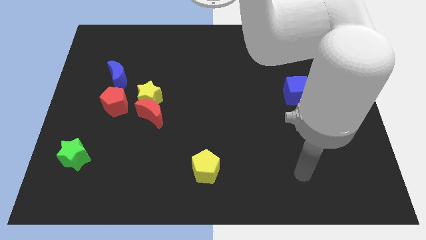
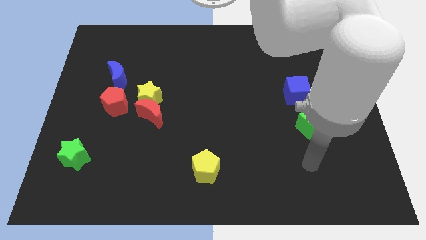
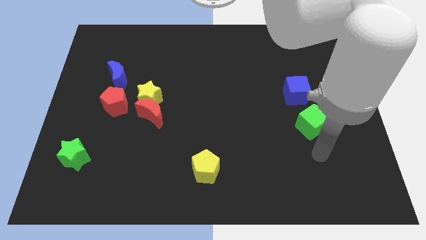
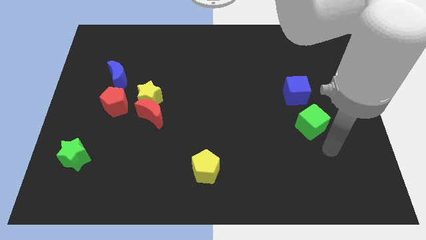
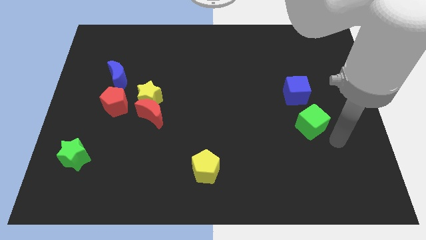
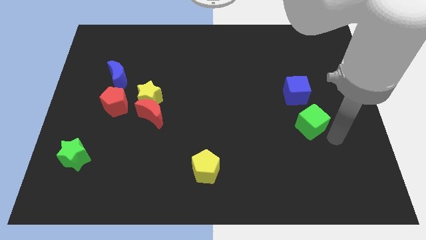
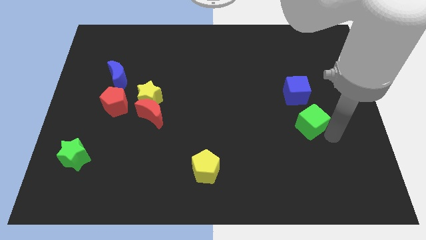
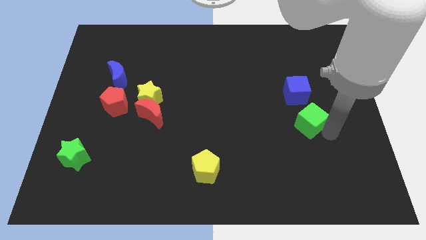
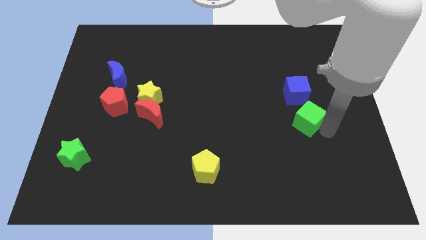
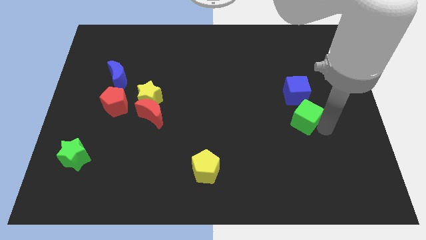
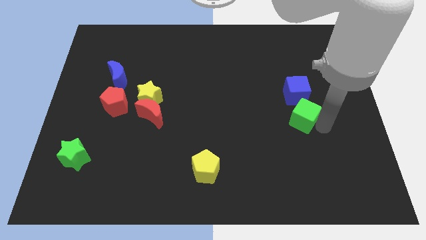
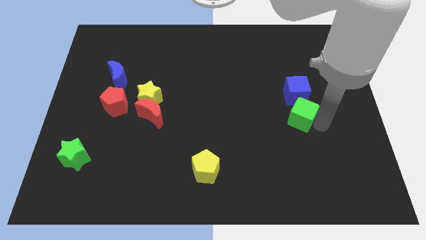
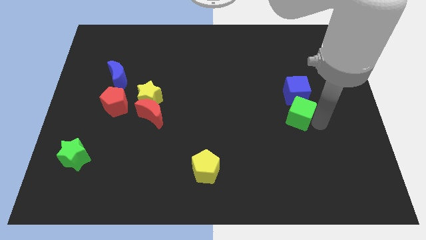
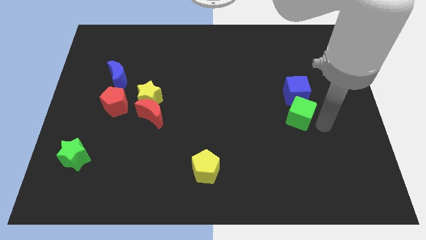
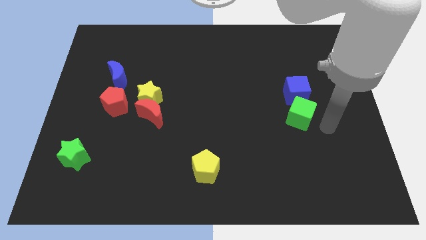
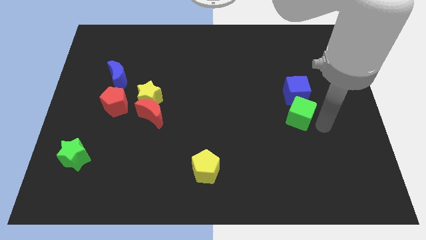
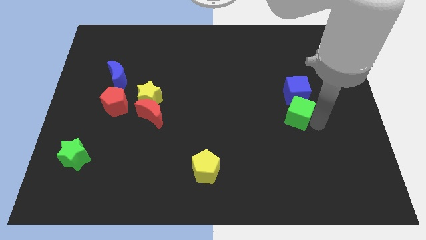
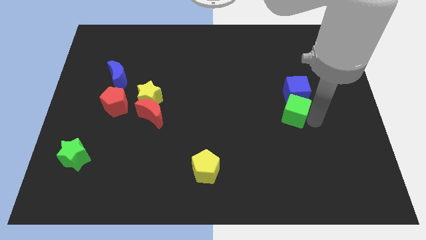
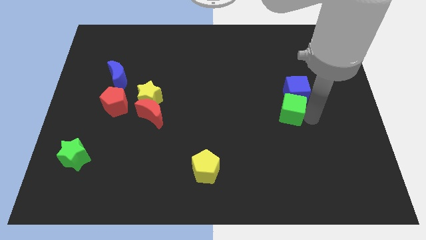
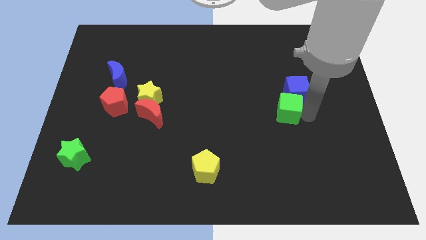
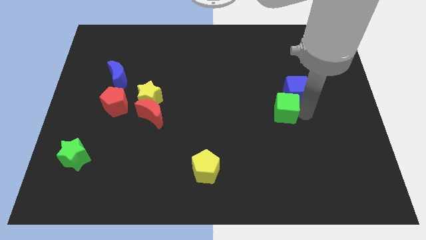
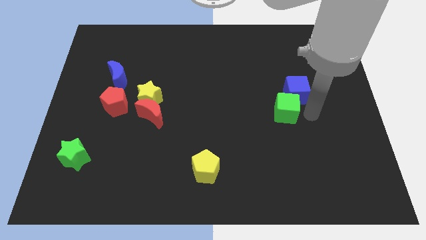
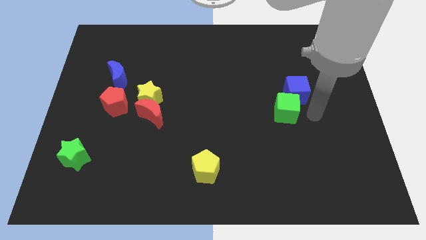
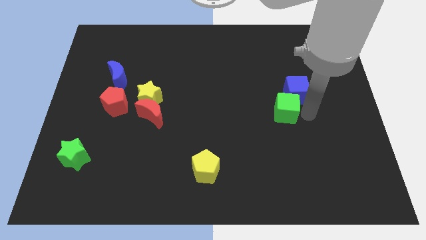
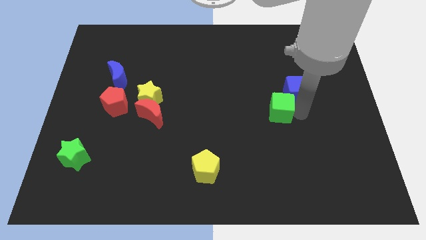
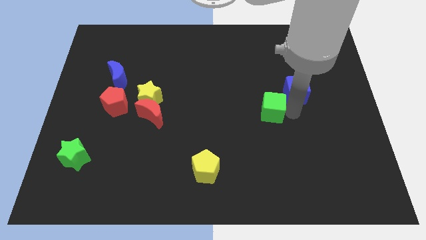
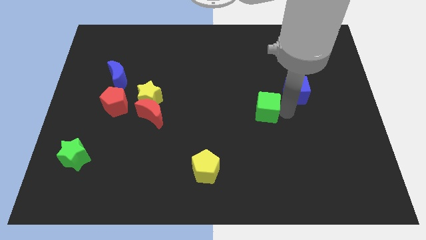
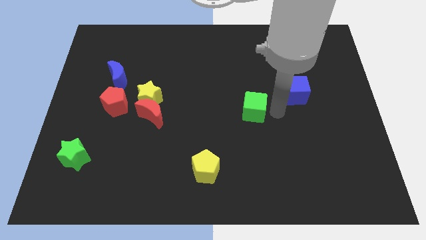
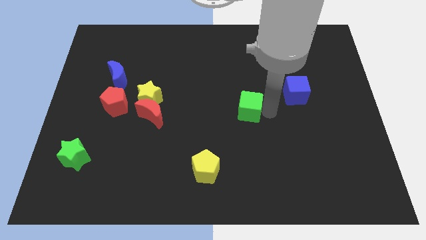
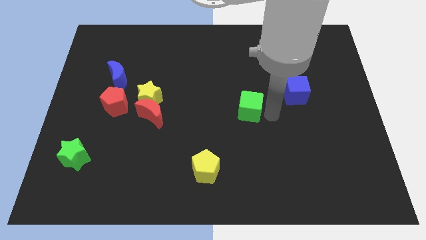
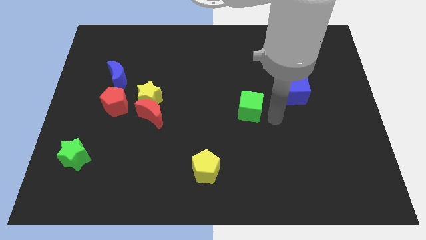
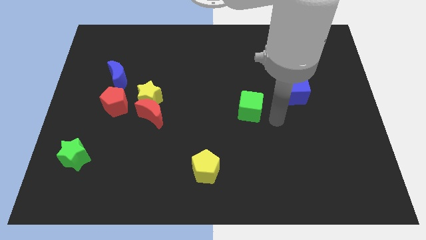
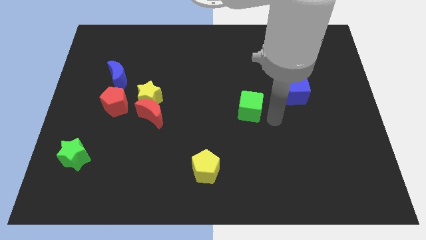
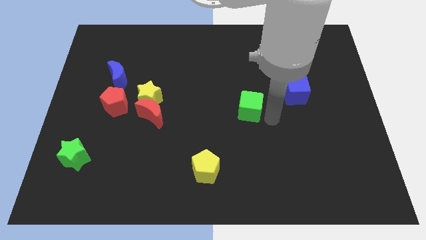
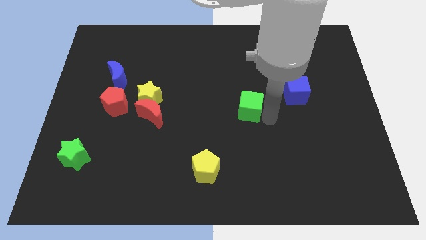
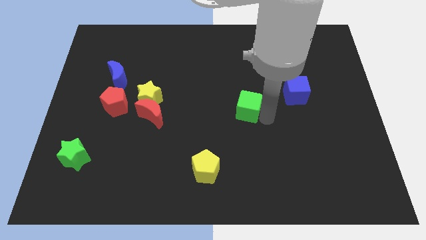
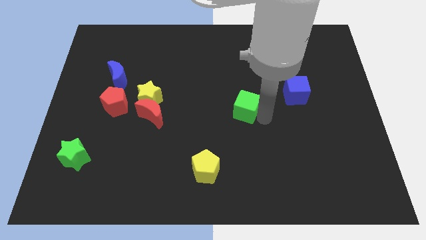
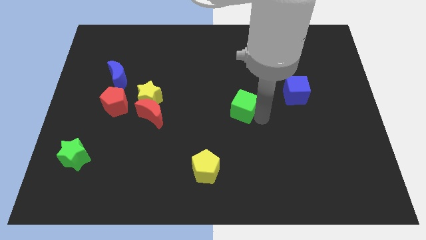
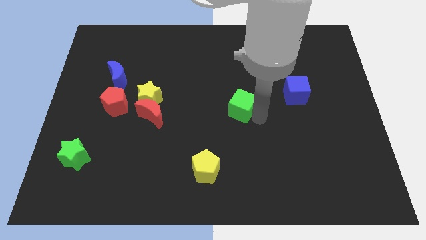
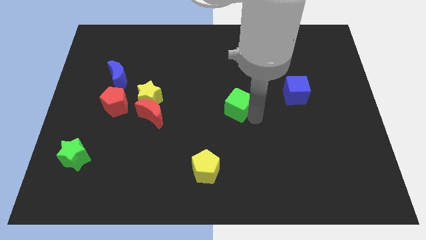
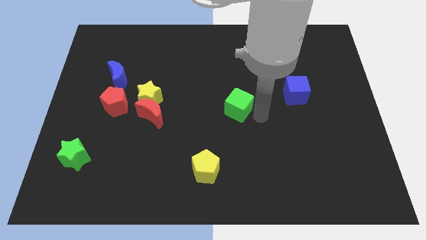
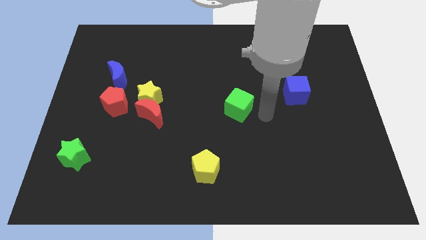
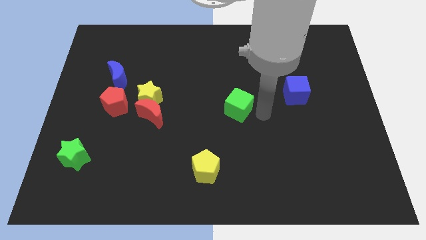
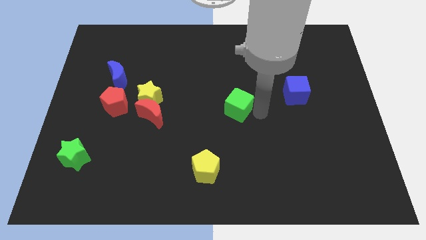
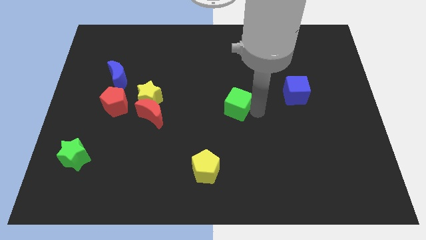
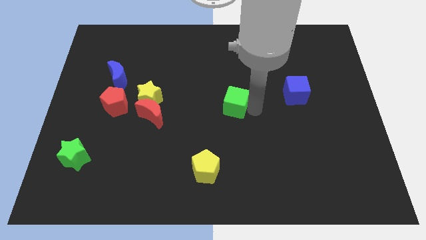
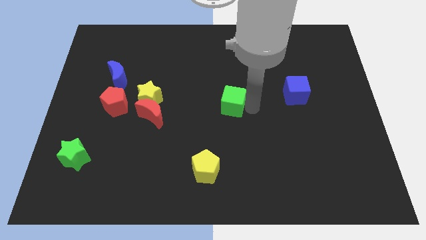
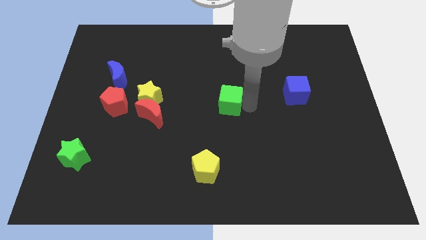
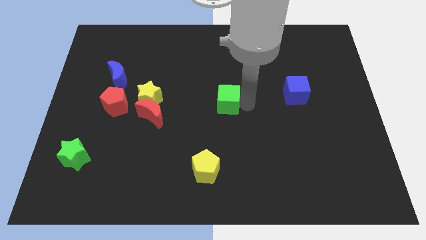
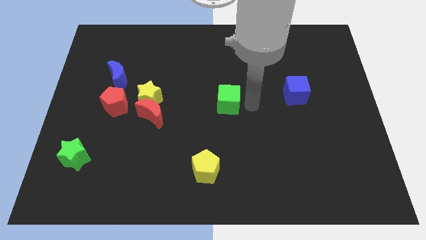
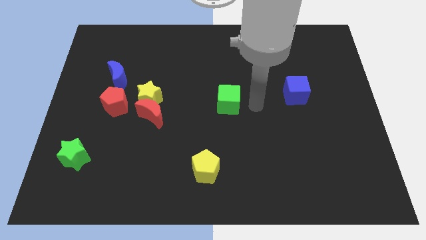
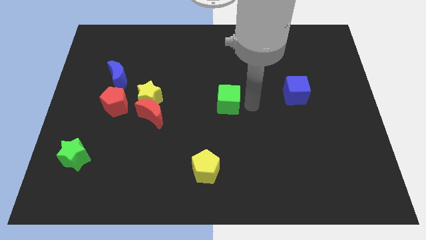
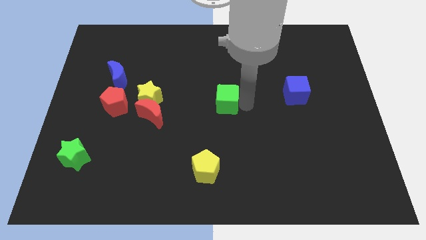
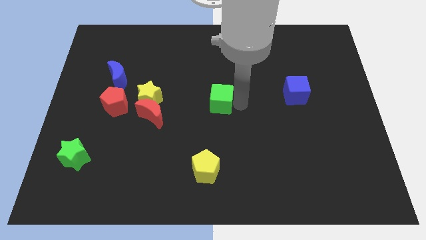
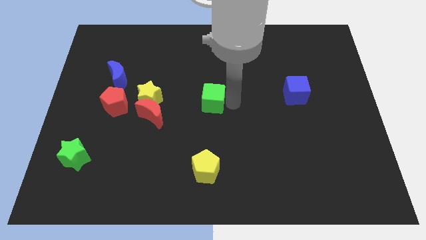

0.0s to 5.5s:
move the green cube to the right side of the yellow star

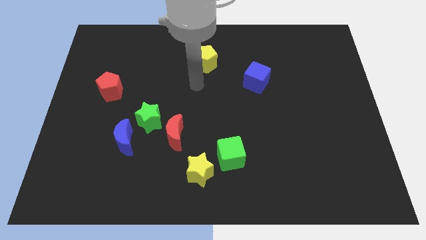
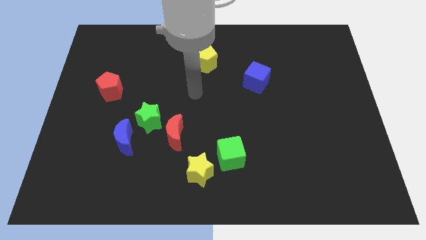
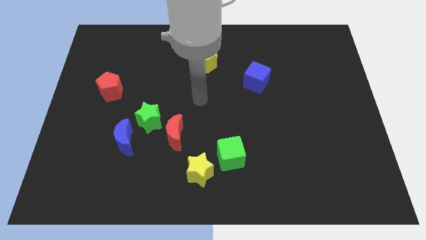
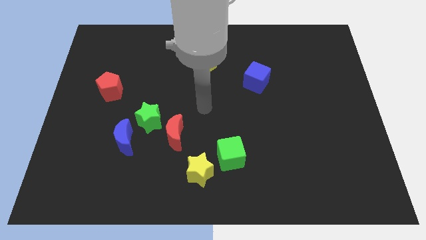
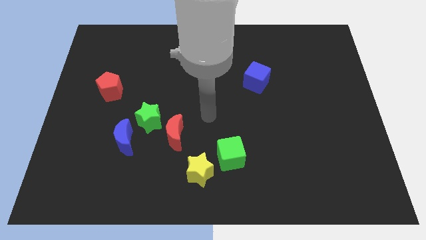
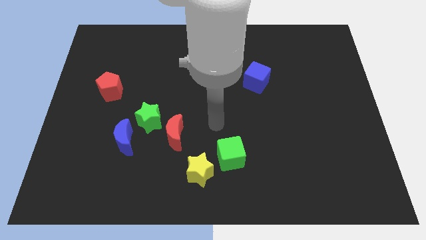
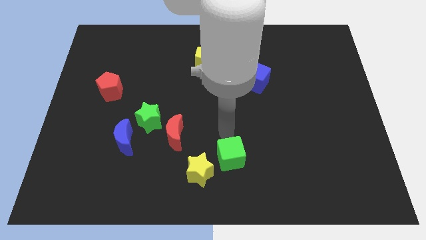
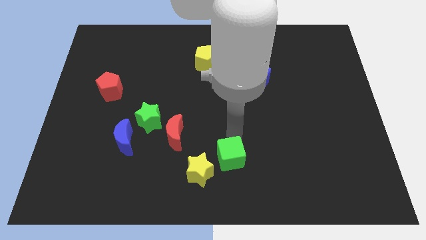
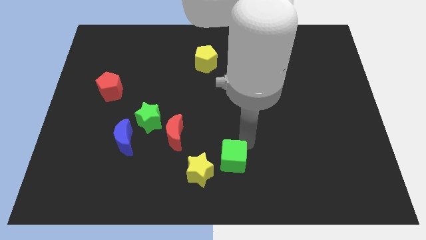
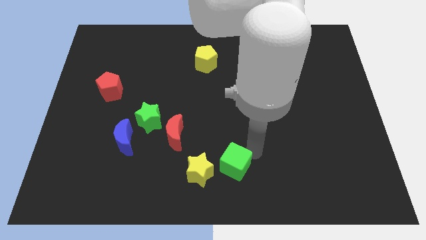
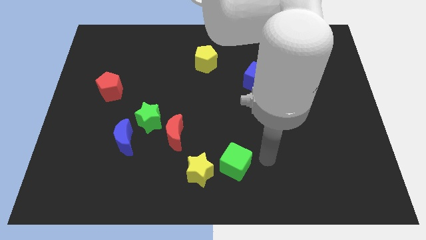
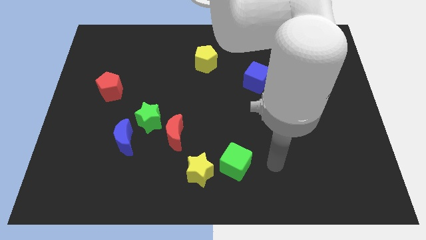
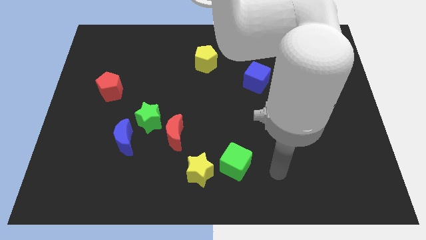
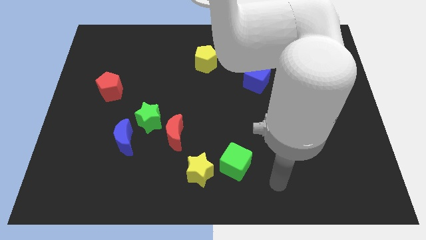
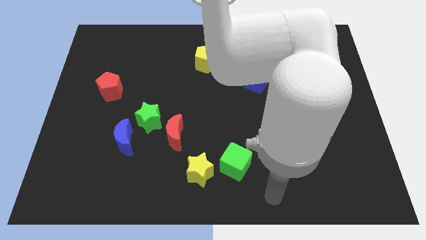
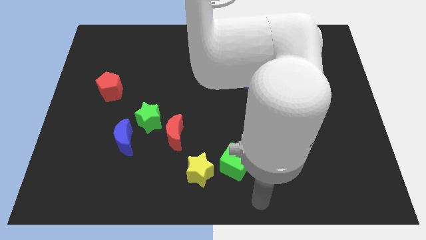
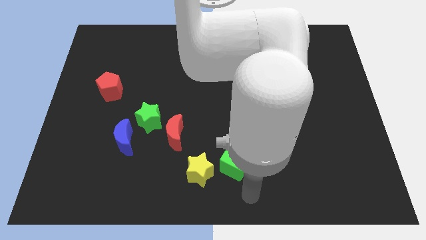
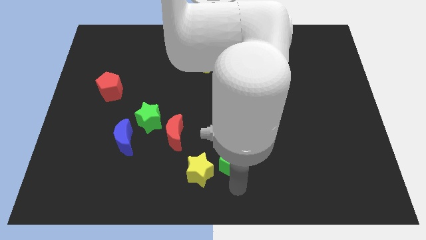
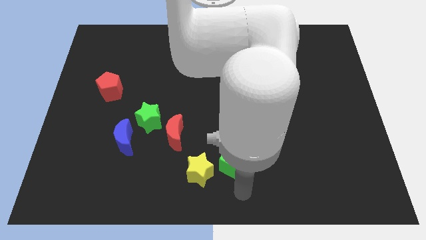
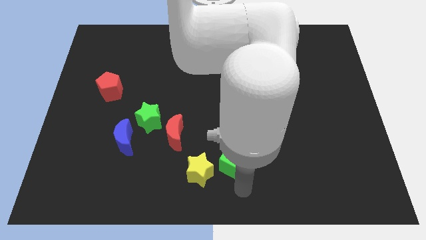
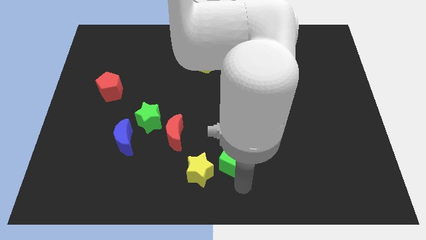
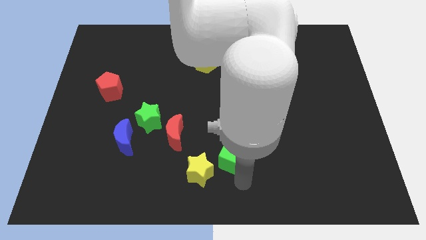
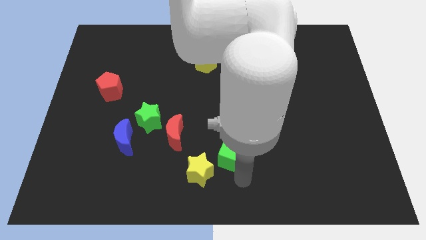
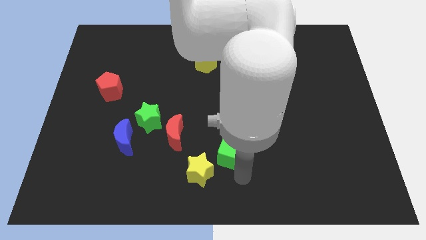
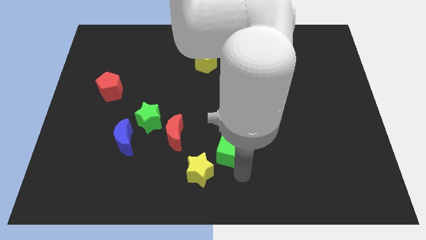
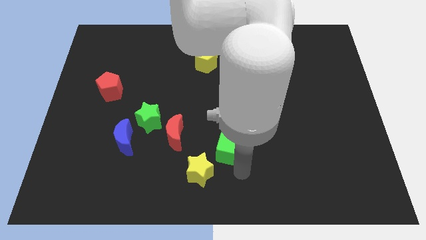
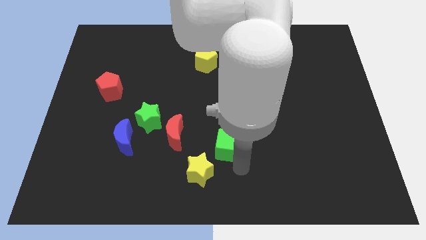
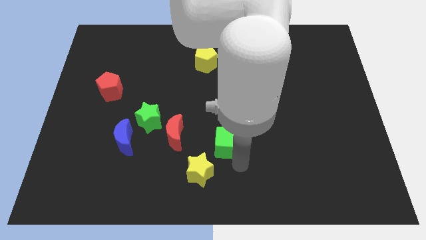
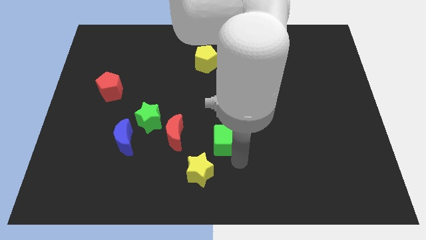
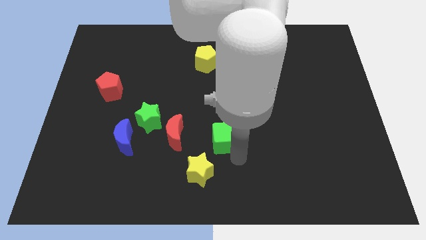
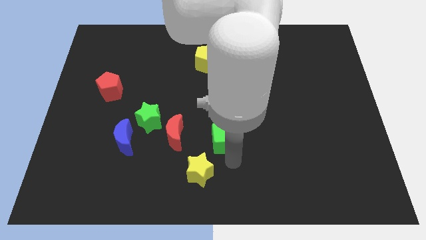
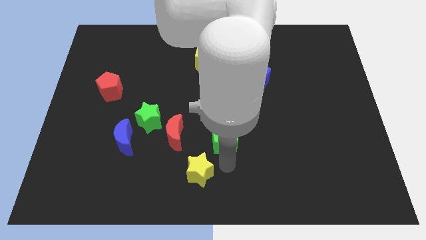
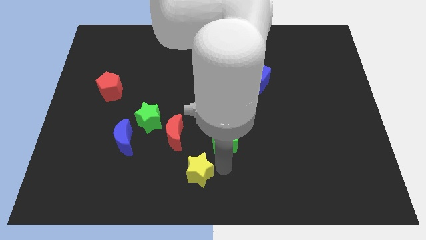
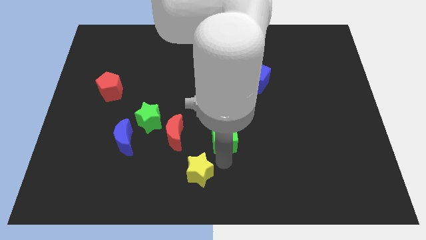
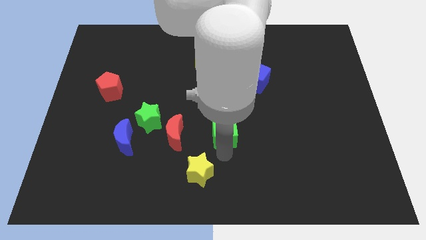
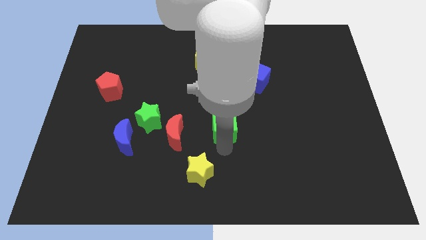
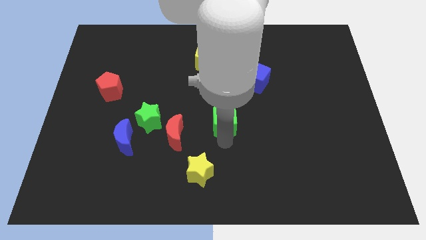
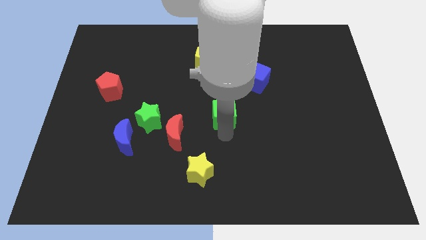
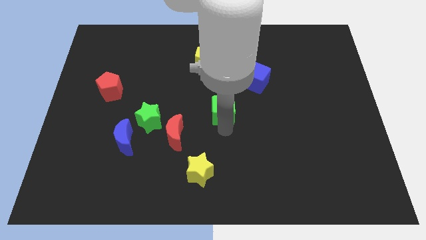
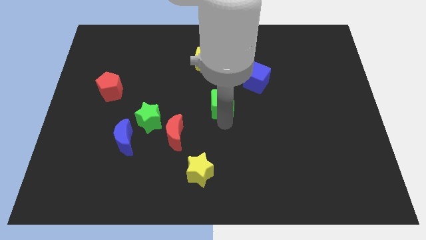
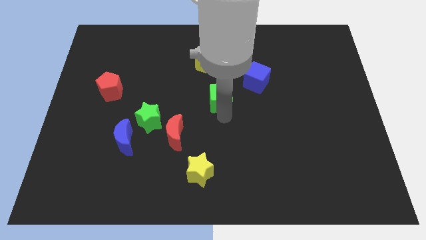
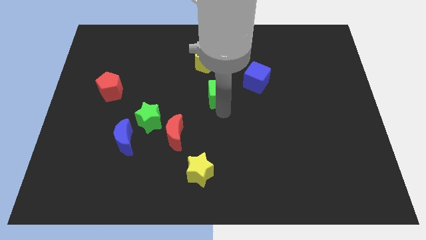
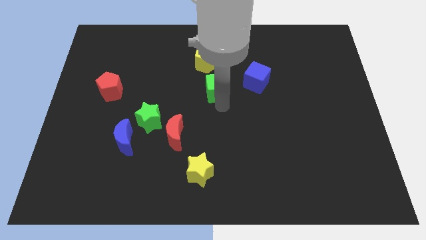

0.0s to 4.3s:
put the green cube to the left side of the blue cube
